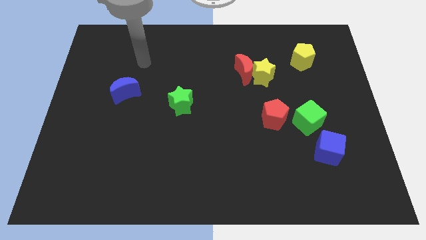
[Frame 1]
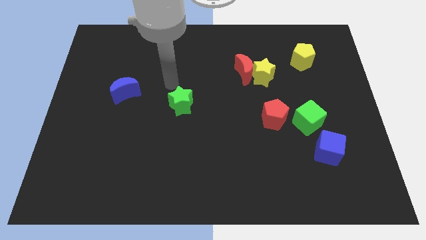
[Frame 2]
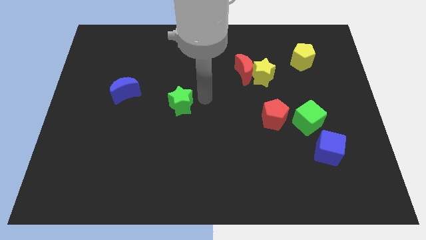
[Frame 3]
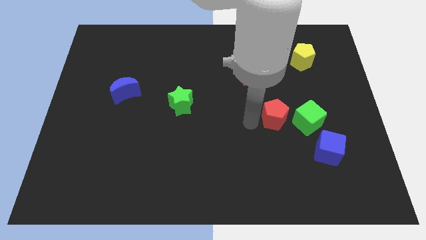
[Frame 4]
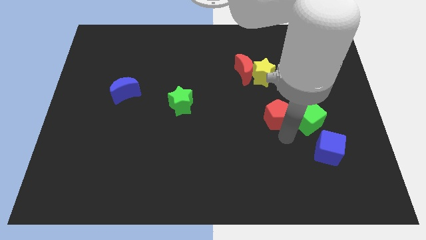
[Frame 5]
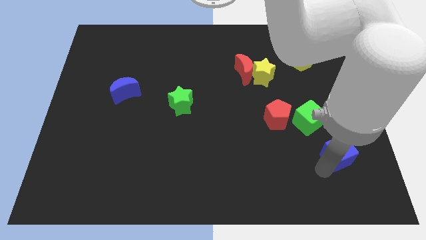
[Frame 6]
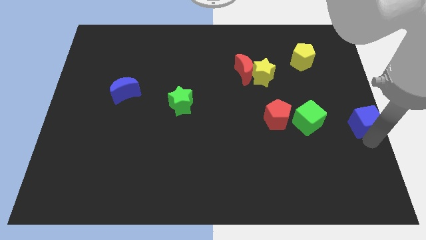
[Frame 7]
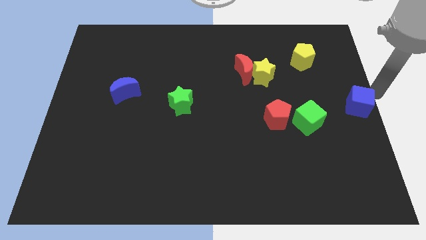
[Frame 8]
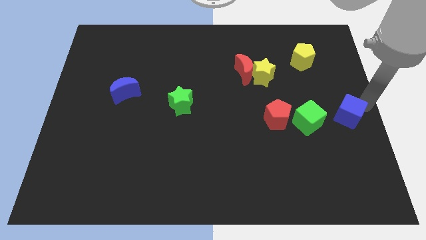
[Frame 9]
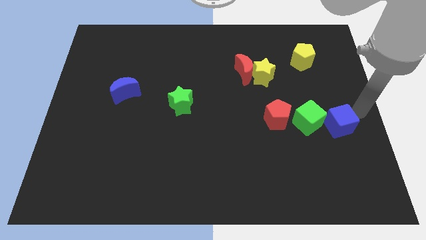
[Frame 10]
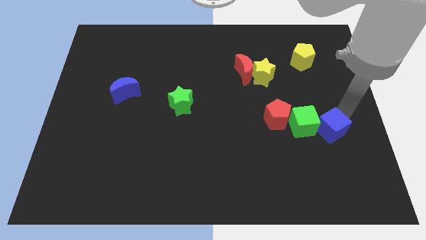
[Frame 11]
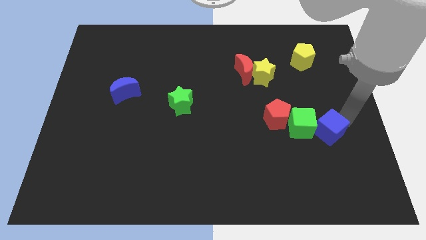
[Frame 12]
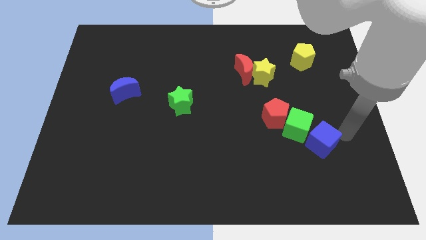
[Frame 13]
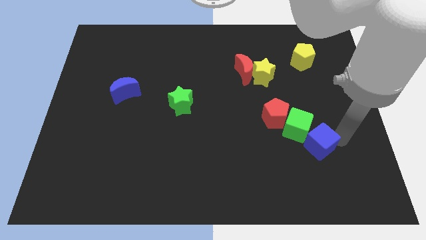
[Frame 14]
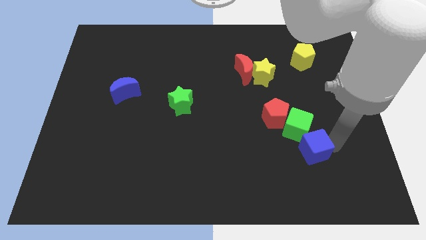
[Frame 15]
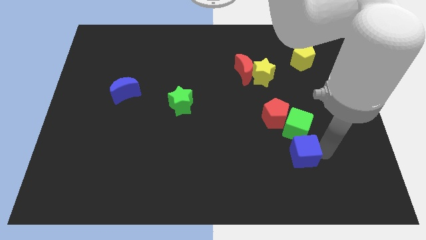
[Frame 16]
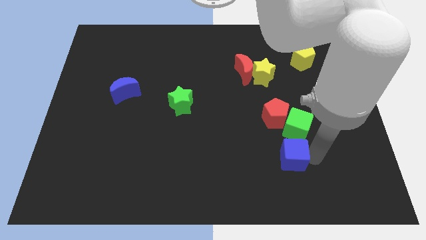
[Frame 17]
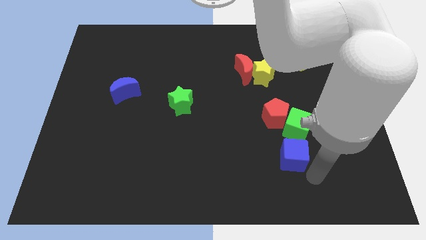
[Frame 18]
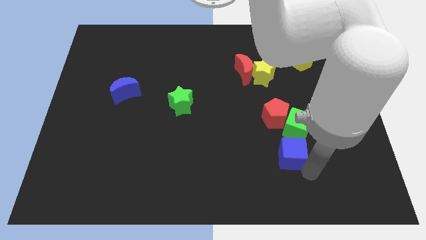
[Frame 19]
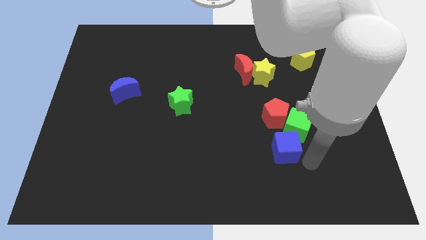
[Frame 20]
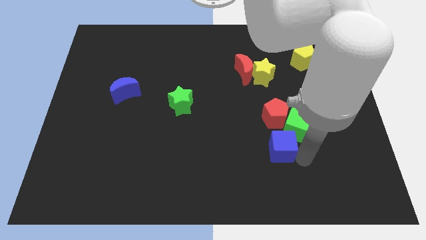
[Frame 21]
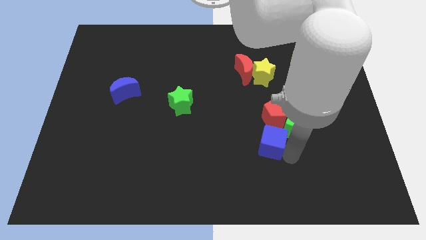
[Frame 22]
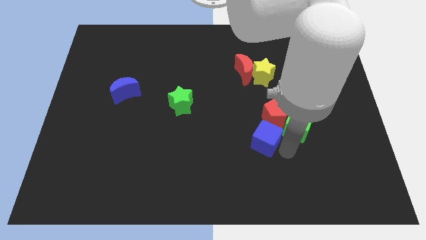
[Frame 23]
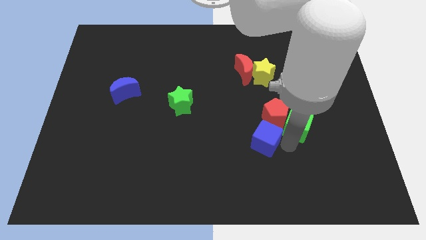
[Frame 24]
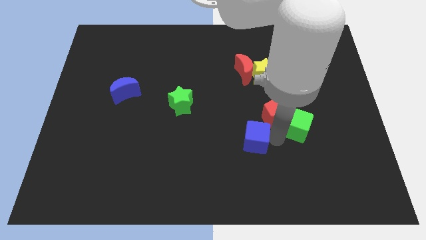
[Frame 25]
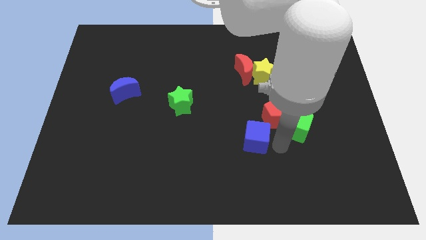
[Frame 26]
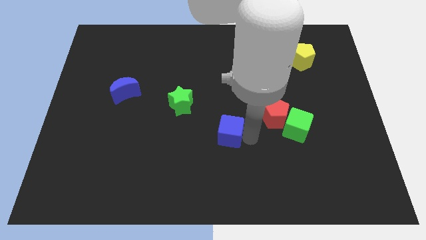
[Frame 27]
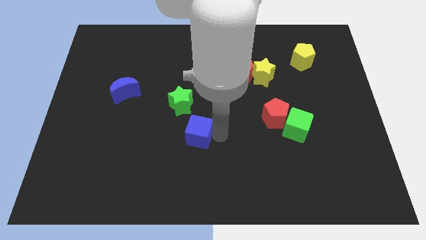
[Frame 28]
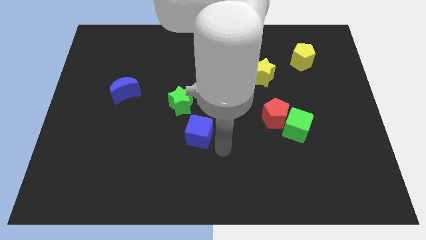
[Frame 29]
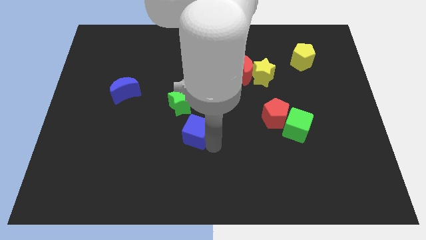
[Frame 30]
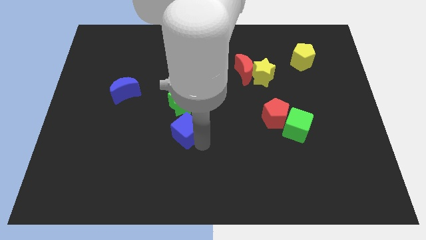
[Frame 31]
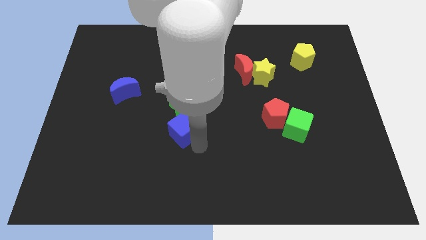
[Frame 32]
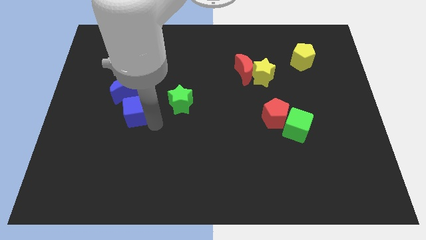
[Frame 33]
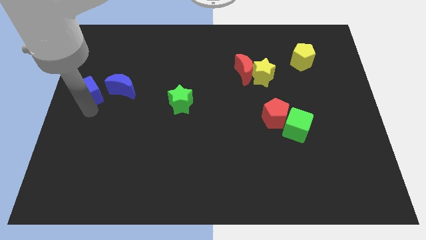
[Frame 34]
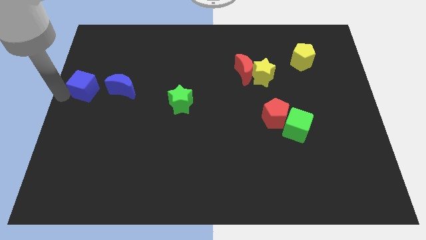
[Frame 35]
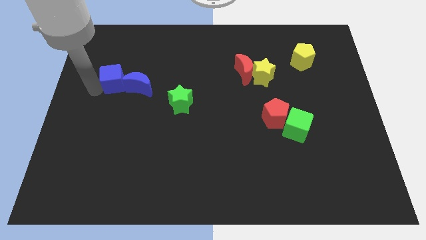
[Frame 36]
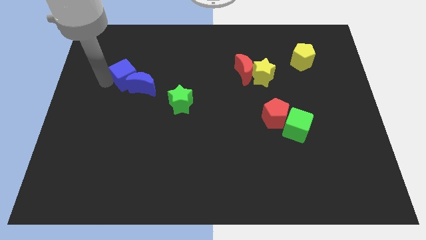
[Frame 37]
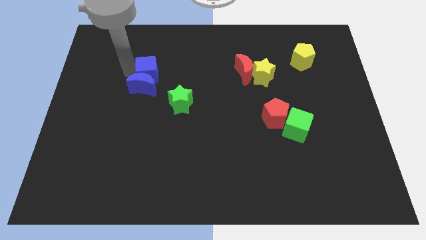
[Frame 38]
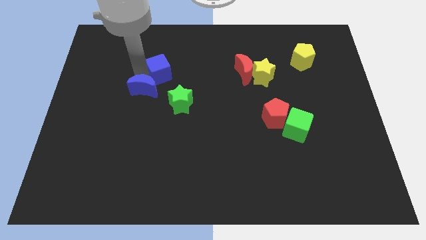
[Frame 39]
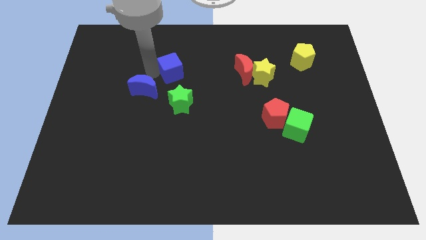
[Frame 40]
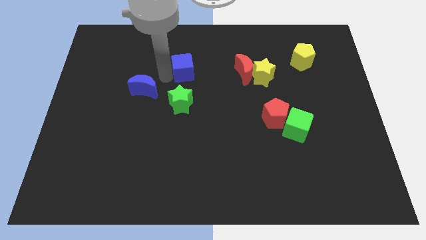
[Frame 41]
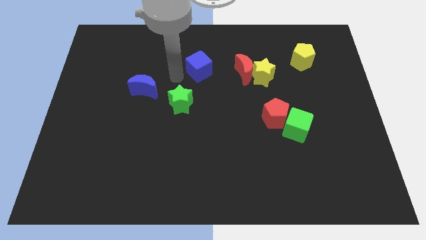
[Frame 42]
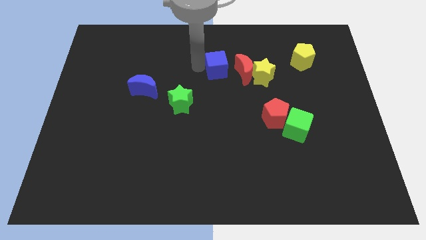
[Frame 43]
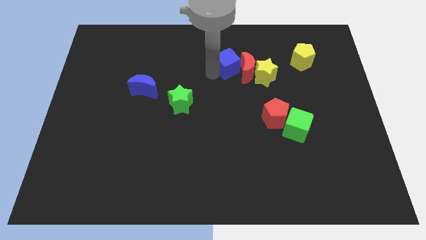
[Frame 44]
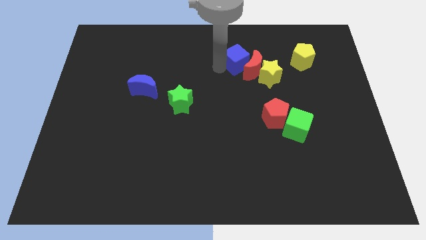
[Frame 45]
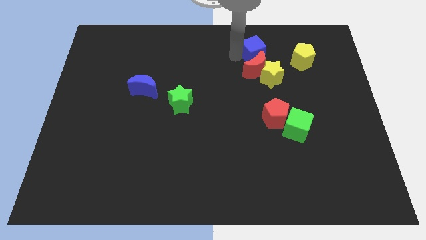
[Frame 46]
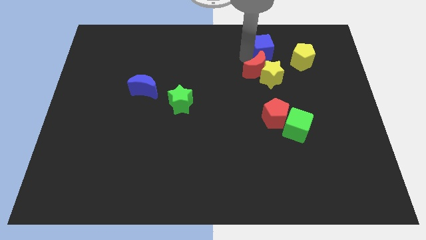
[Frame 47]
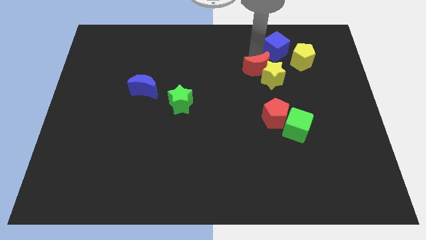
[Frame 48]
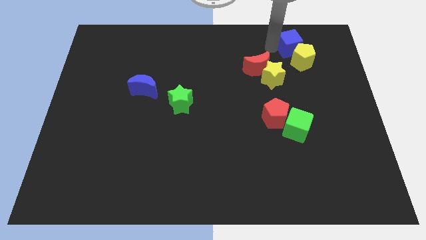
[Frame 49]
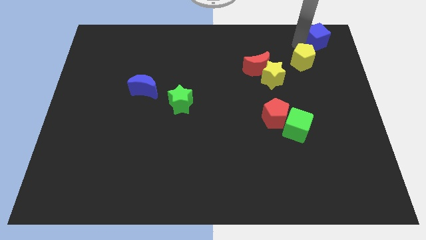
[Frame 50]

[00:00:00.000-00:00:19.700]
move the blue cube to the upper right corner

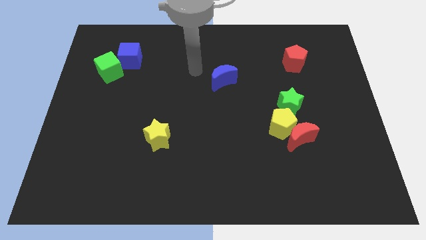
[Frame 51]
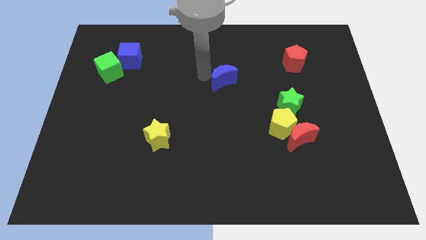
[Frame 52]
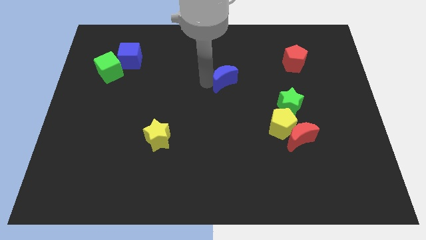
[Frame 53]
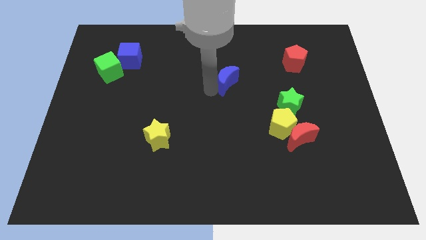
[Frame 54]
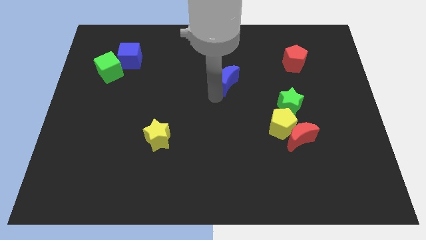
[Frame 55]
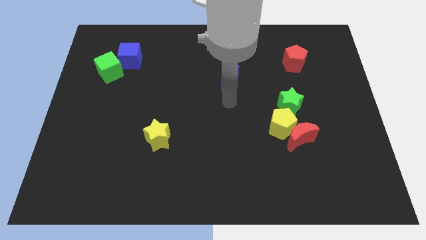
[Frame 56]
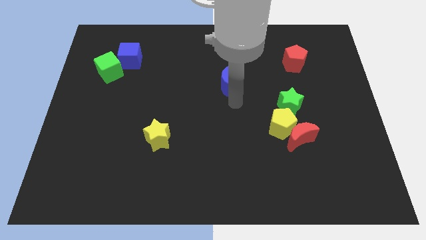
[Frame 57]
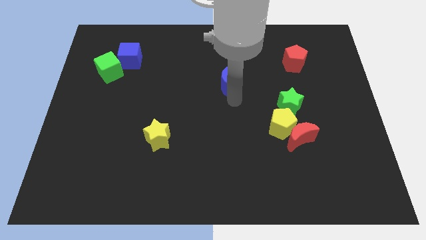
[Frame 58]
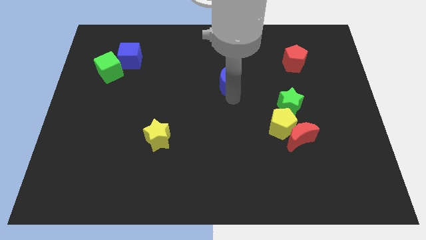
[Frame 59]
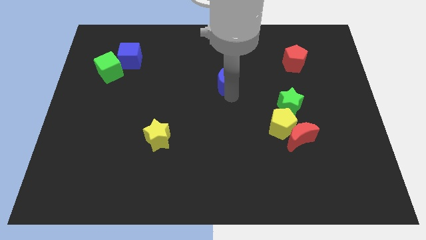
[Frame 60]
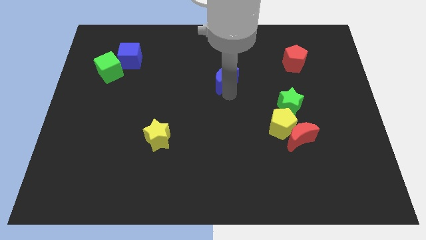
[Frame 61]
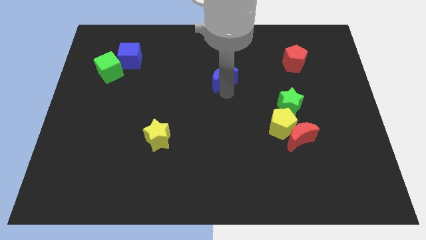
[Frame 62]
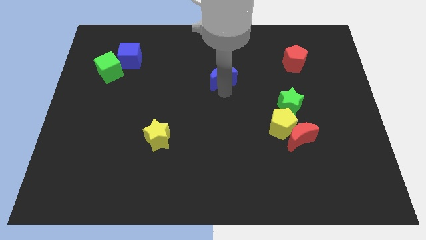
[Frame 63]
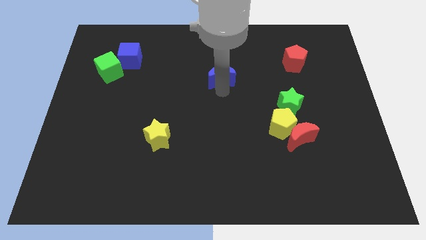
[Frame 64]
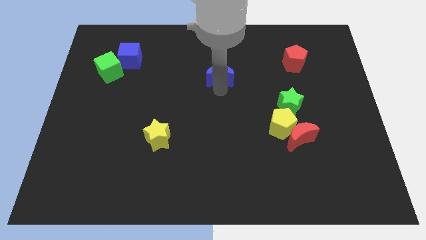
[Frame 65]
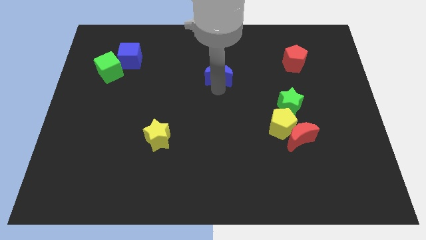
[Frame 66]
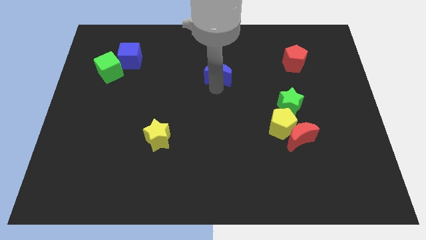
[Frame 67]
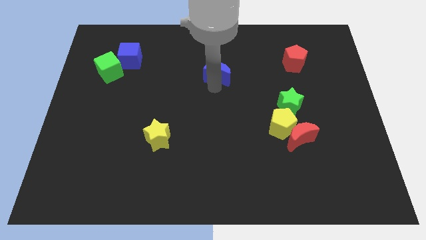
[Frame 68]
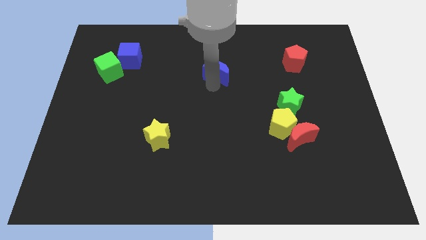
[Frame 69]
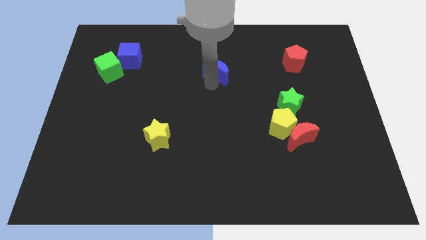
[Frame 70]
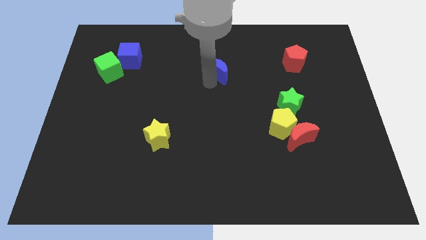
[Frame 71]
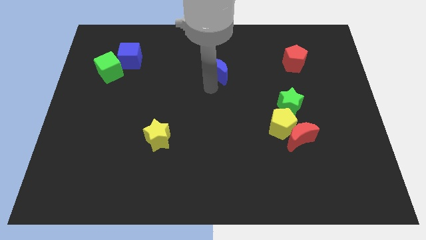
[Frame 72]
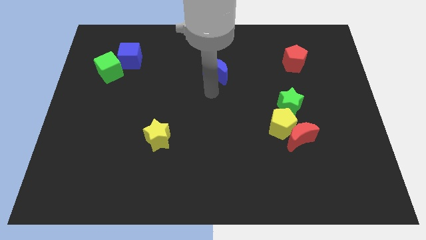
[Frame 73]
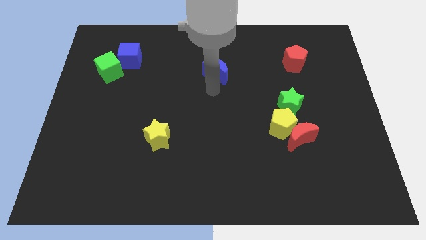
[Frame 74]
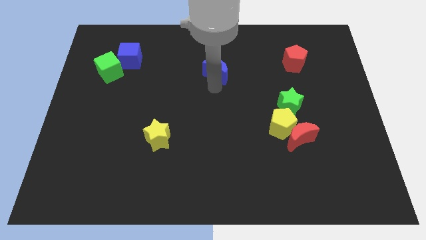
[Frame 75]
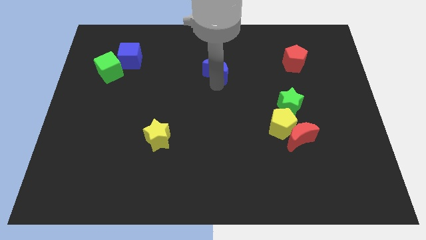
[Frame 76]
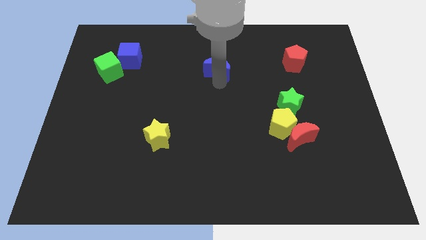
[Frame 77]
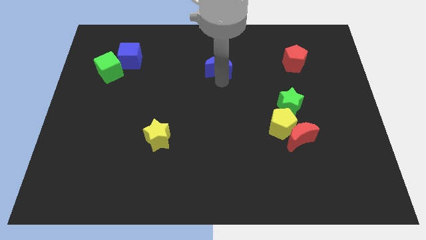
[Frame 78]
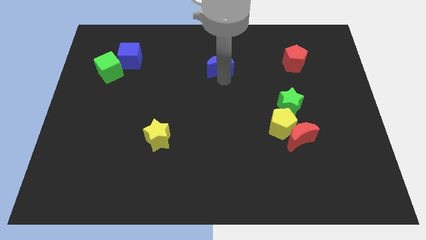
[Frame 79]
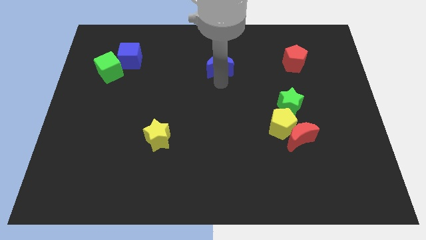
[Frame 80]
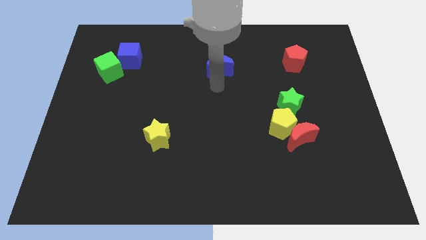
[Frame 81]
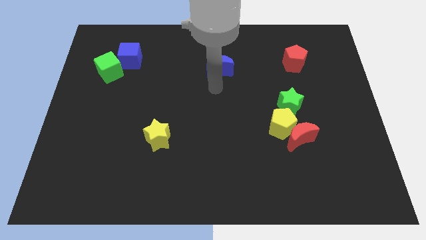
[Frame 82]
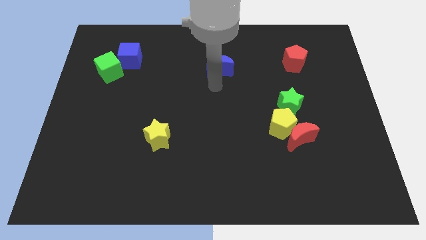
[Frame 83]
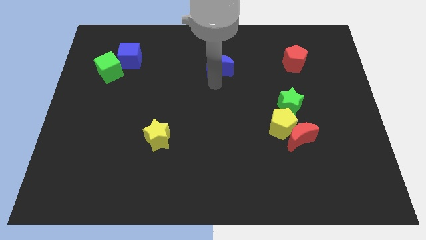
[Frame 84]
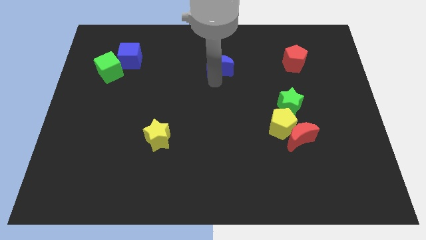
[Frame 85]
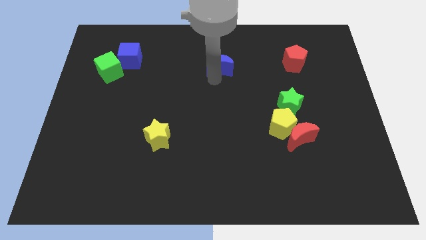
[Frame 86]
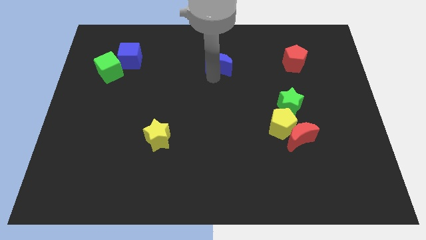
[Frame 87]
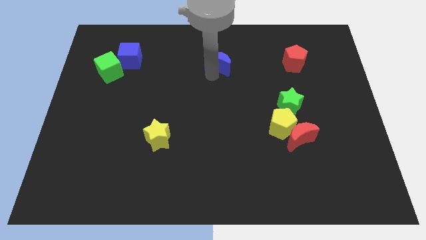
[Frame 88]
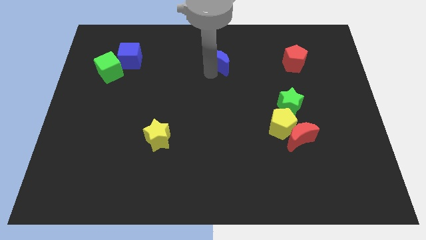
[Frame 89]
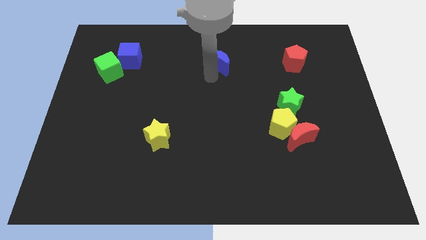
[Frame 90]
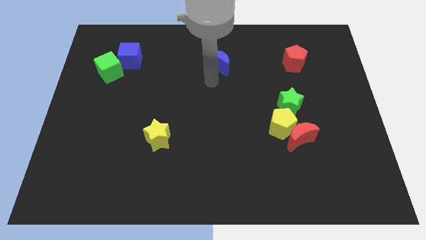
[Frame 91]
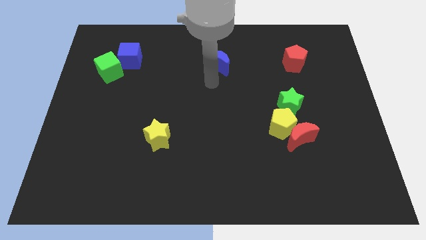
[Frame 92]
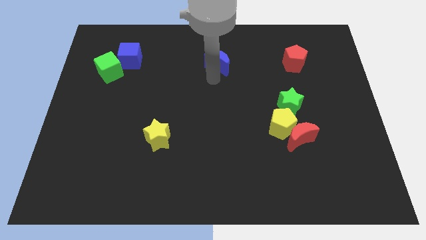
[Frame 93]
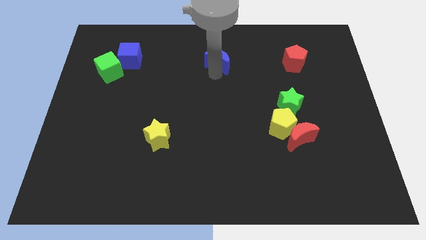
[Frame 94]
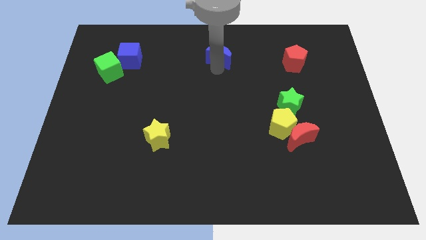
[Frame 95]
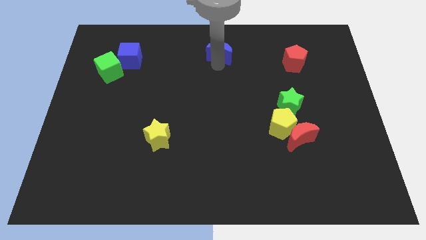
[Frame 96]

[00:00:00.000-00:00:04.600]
push the blue moon to the top
